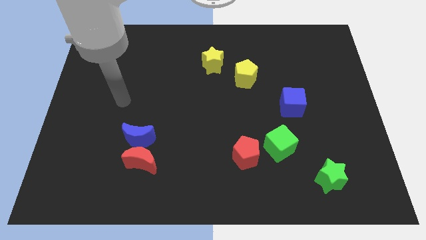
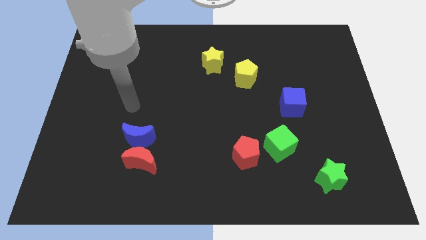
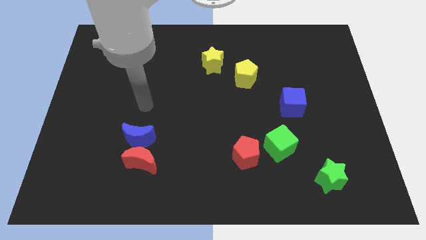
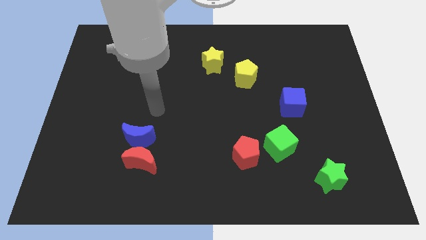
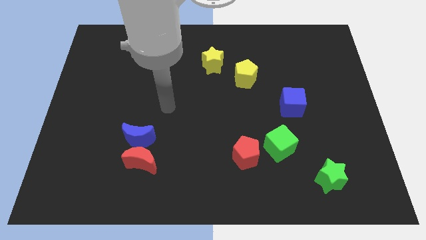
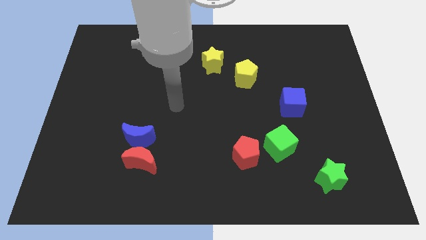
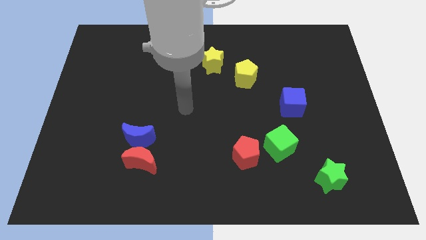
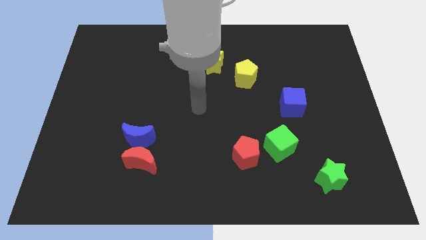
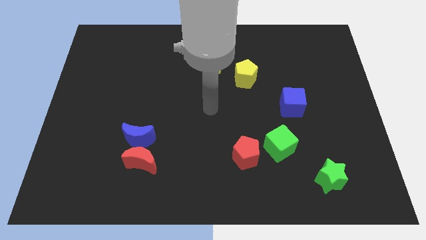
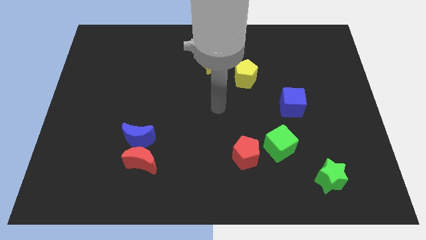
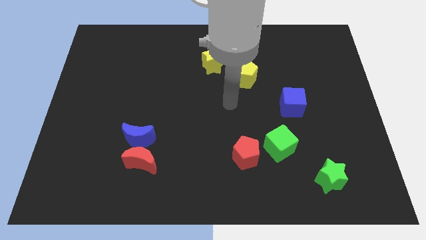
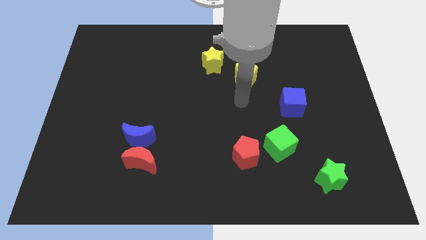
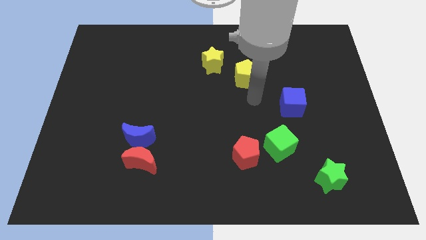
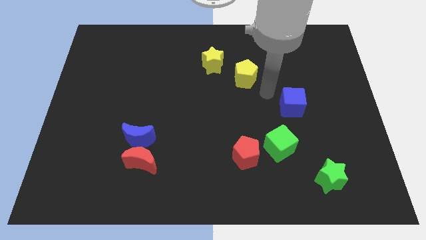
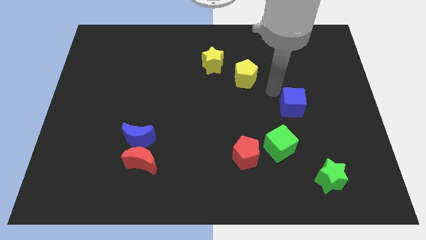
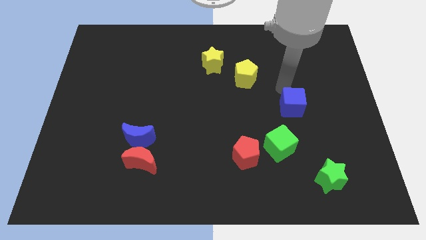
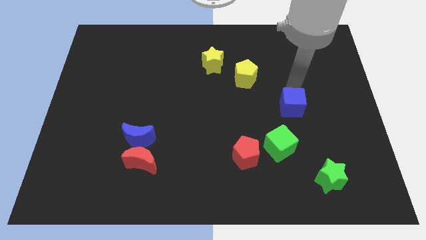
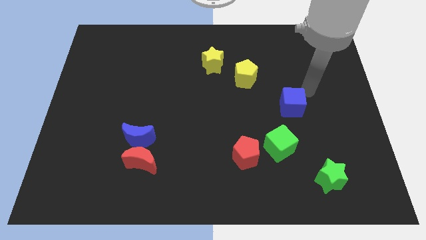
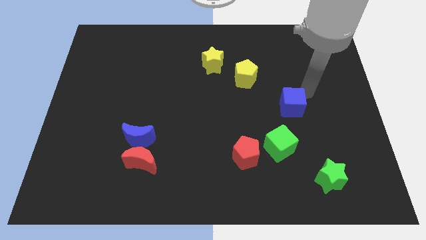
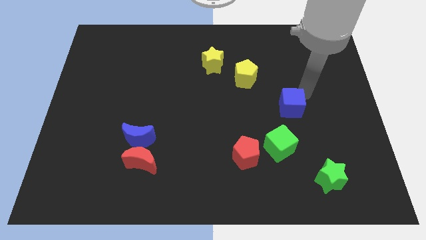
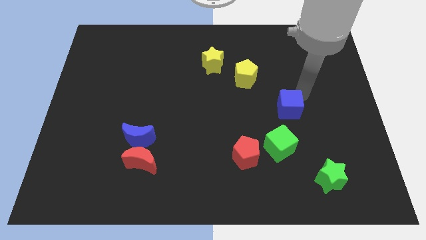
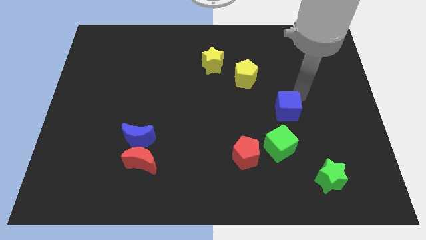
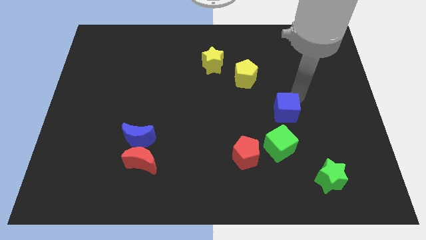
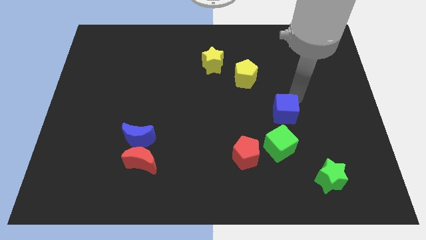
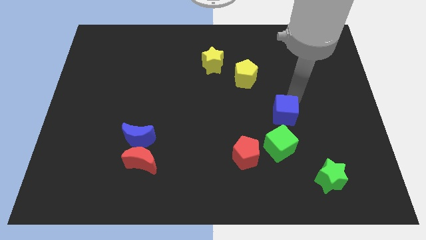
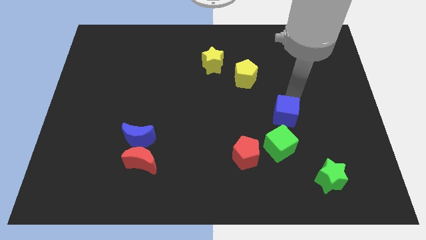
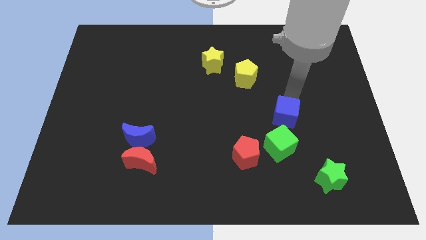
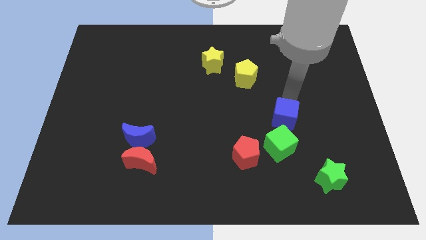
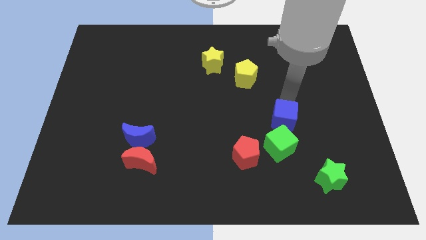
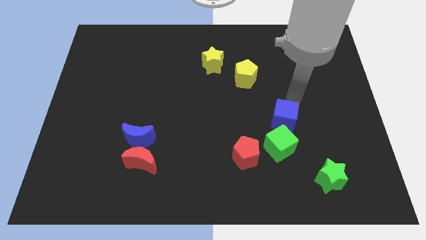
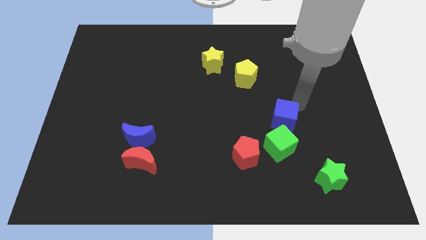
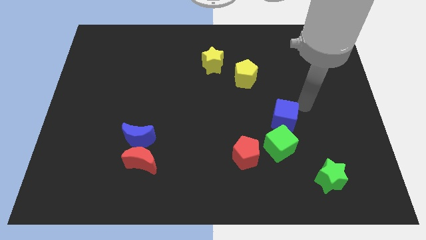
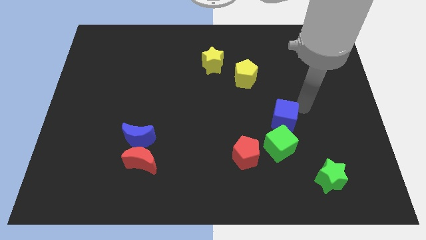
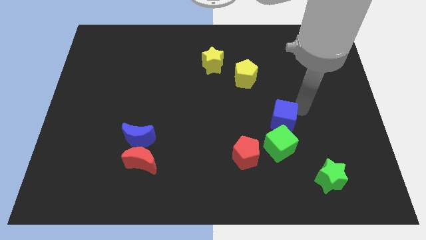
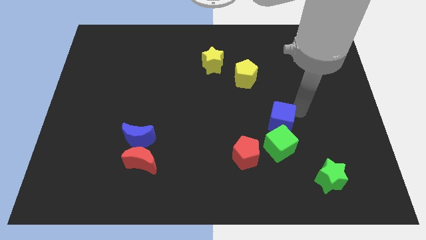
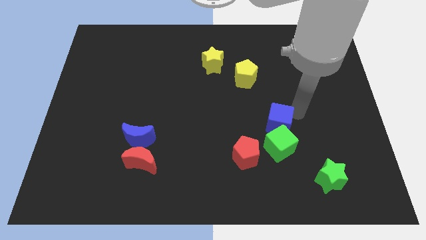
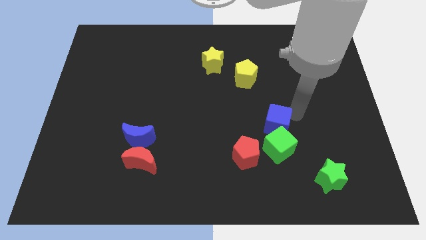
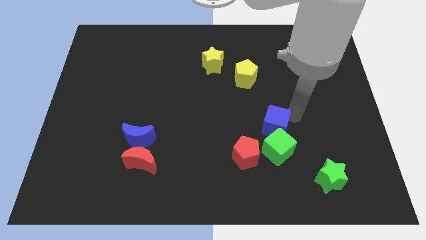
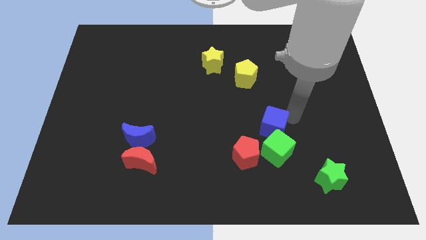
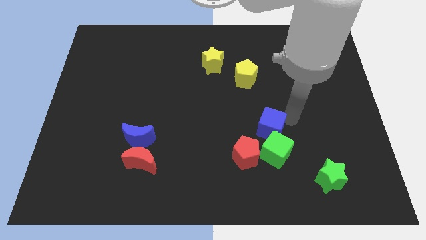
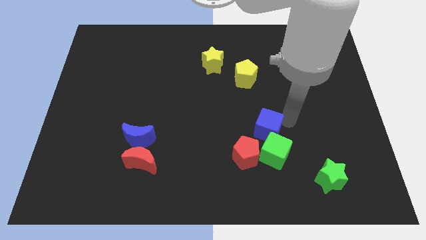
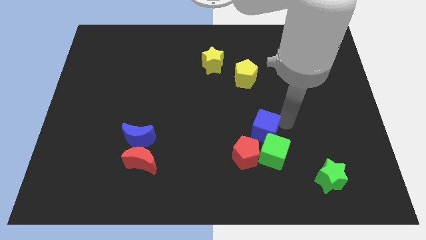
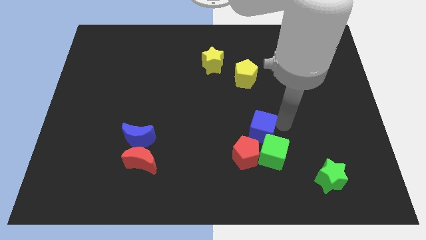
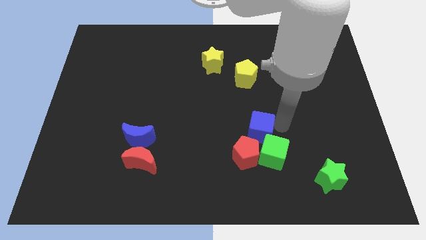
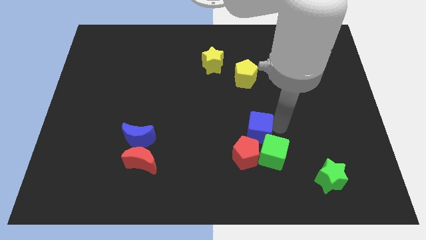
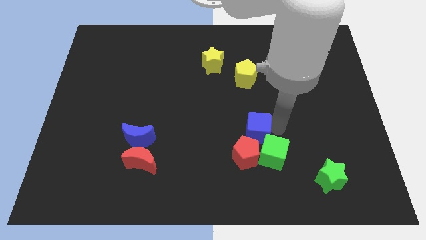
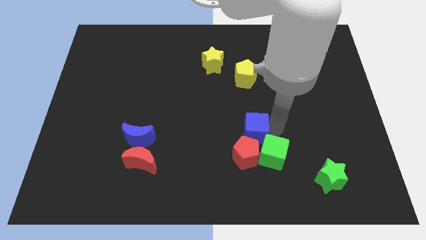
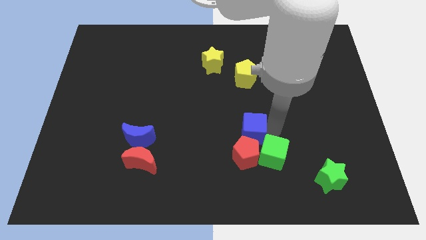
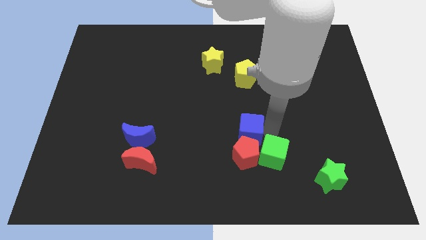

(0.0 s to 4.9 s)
slide the blue cube next to the red pentagon

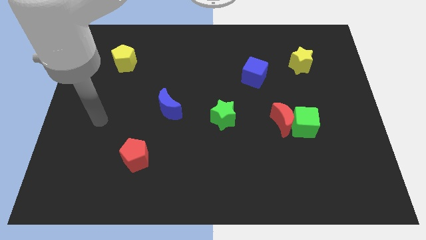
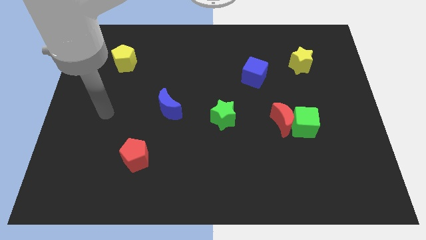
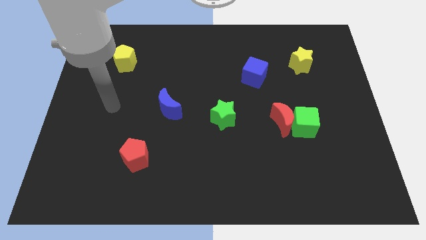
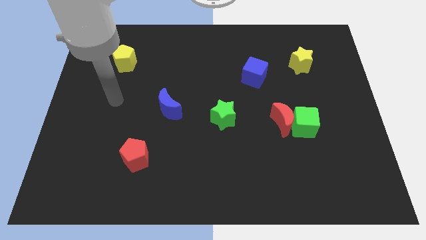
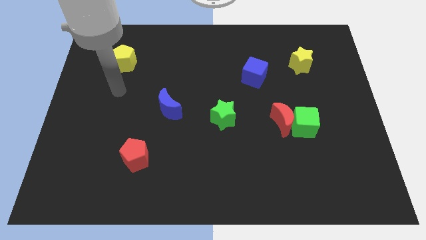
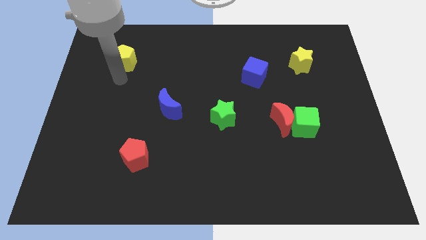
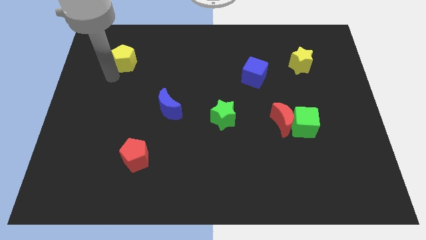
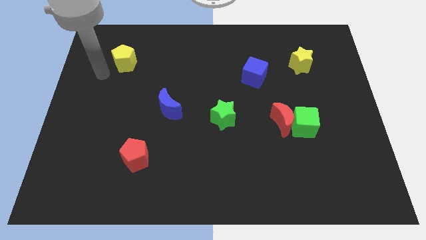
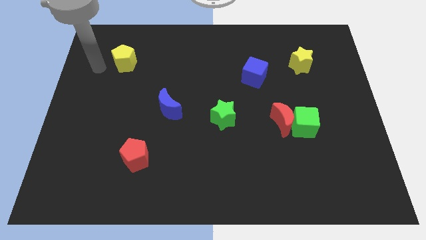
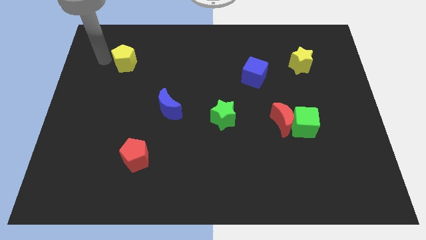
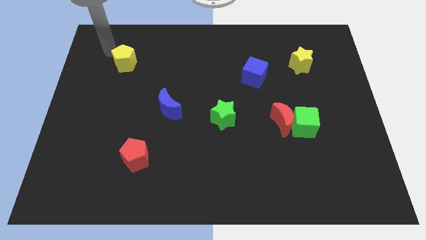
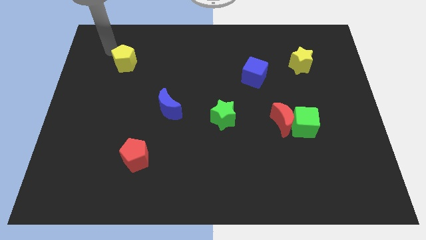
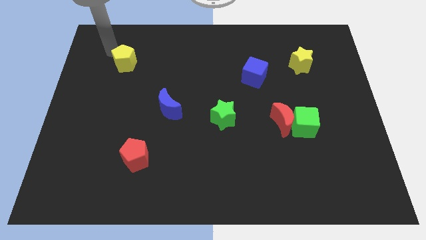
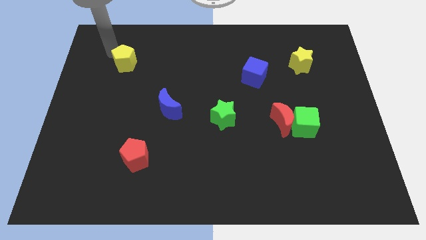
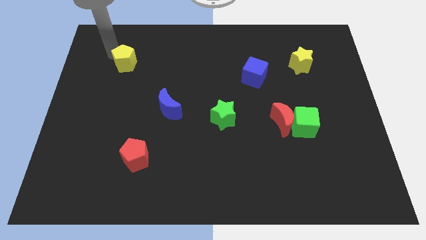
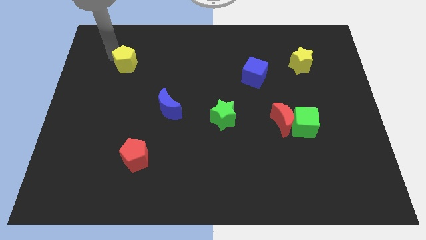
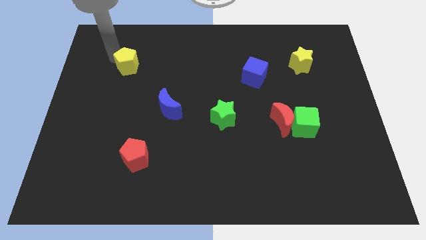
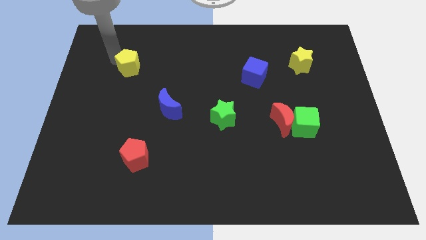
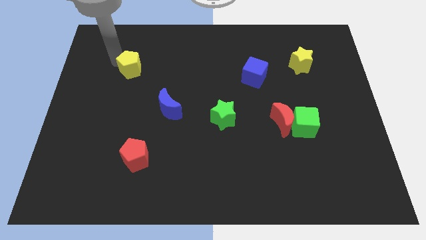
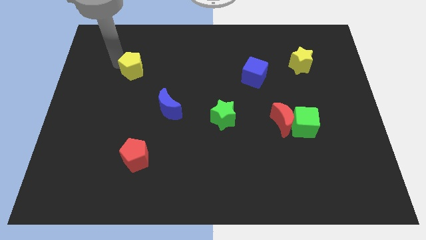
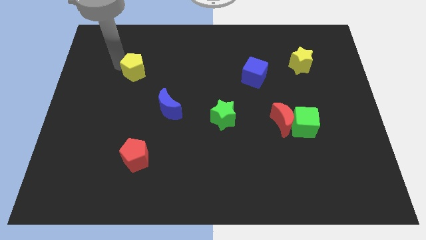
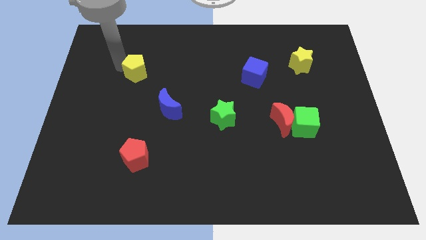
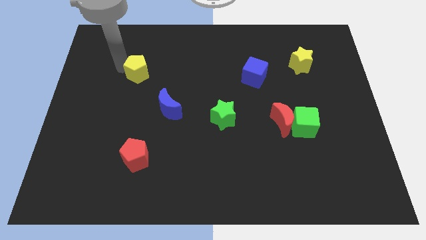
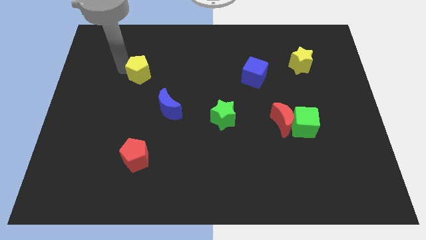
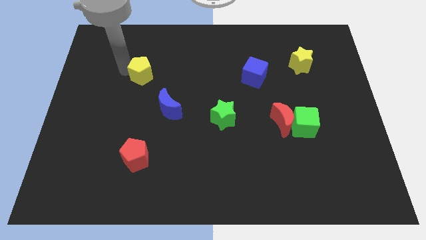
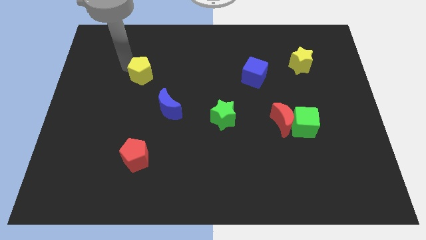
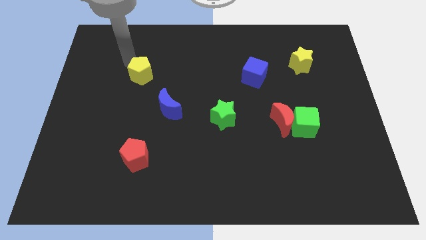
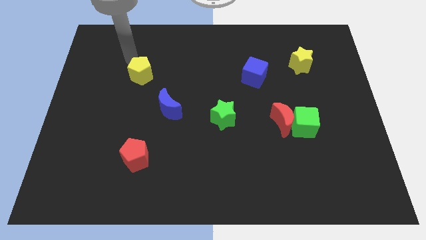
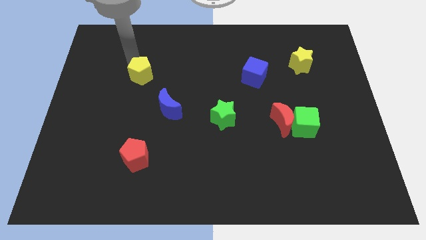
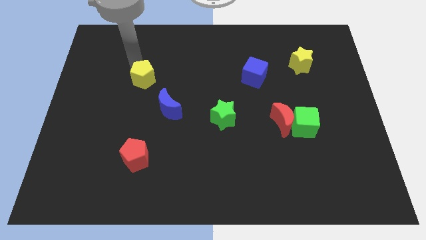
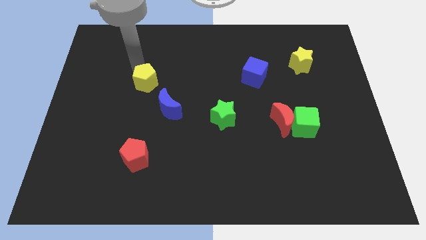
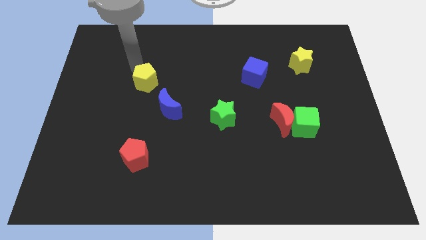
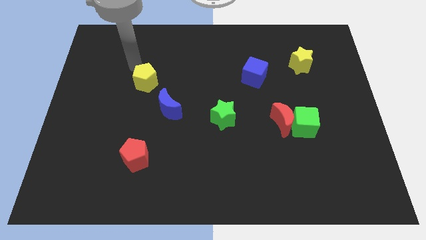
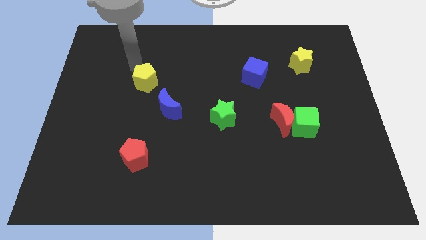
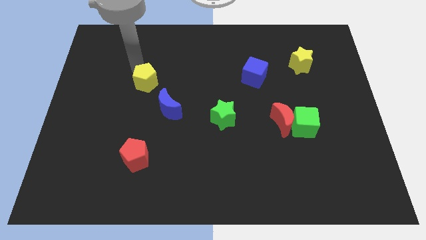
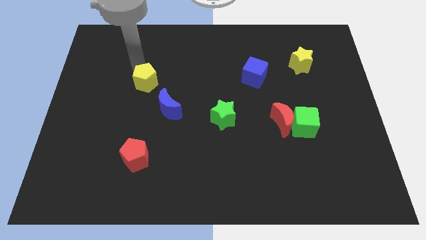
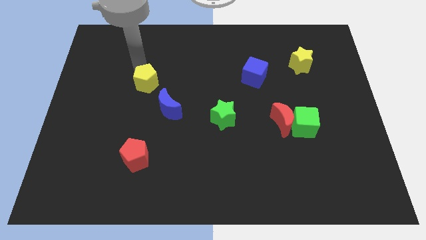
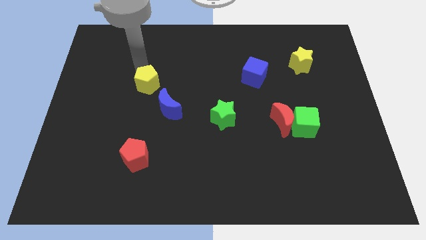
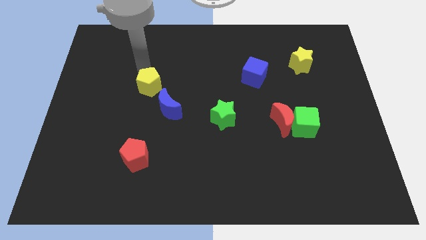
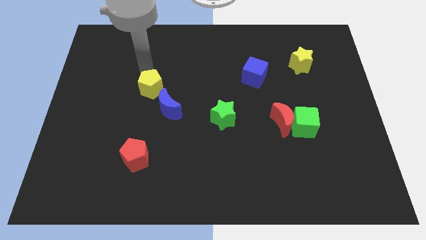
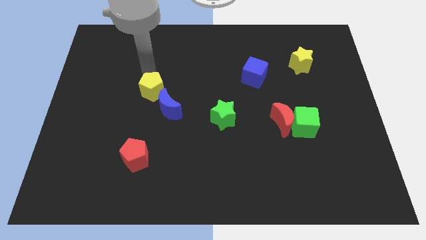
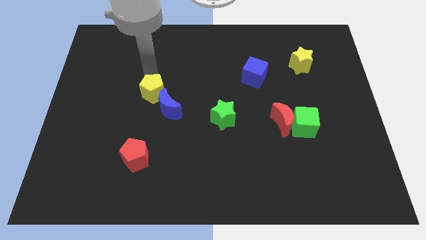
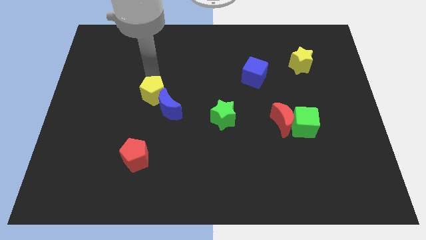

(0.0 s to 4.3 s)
push the yellow pentagon towards the blue moon
